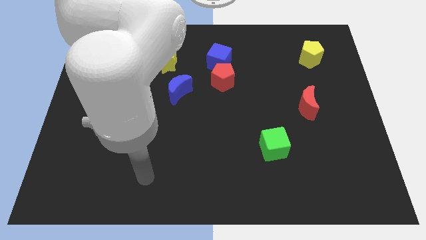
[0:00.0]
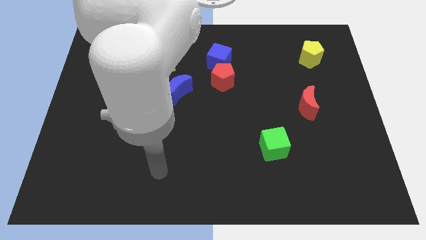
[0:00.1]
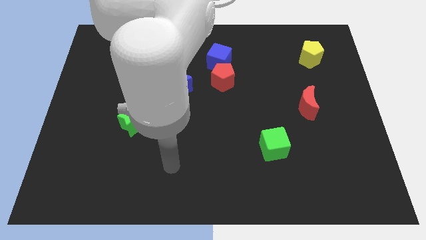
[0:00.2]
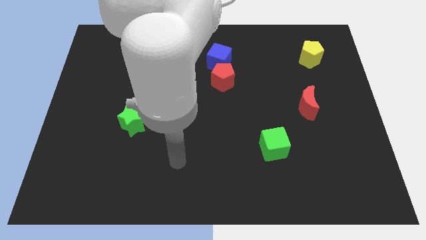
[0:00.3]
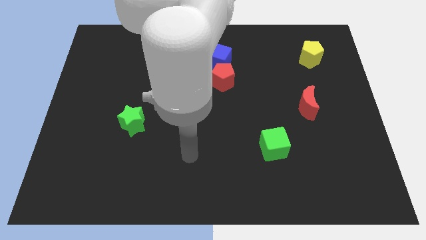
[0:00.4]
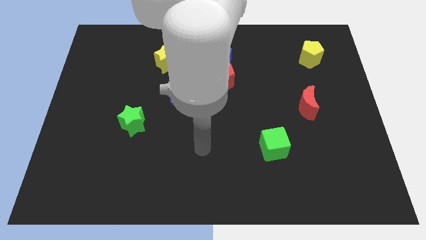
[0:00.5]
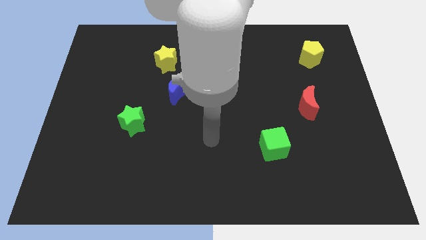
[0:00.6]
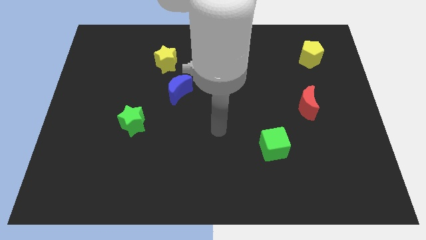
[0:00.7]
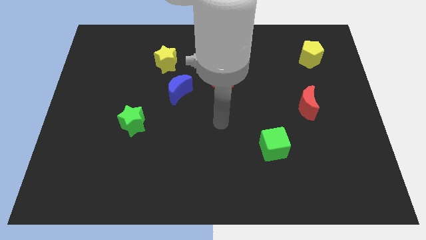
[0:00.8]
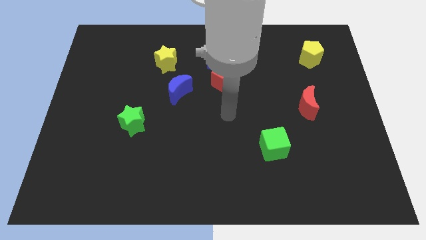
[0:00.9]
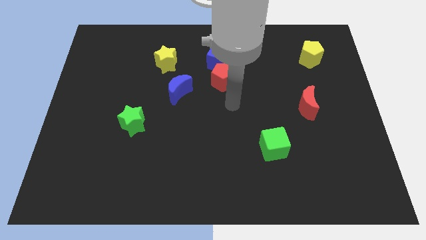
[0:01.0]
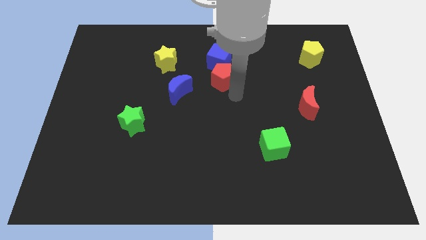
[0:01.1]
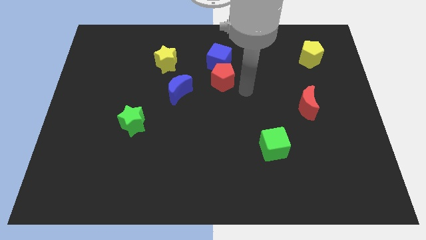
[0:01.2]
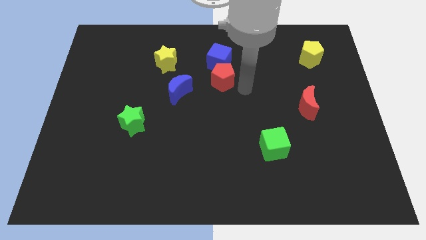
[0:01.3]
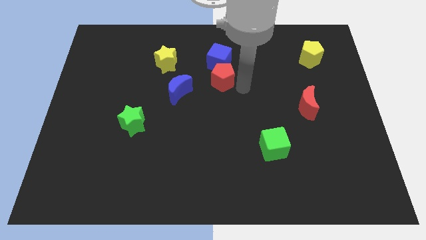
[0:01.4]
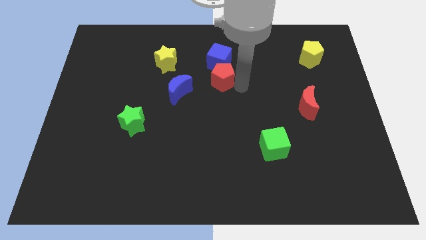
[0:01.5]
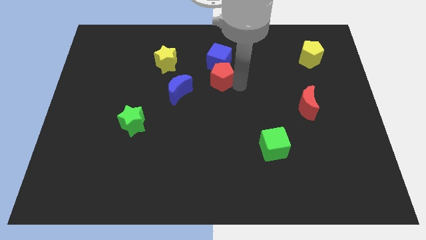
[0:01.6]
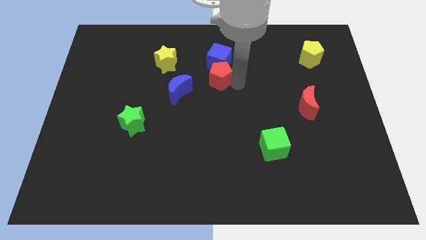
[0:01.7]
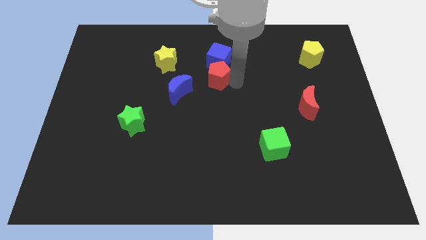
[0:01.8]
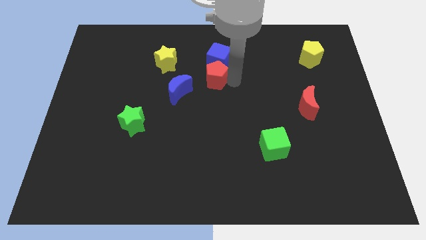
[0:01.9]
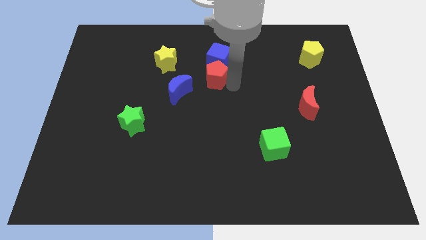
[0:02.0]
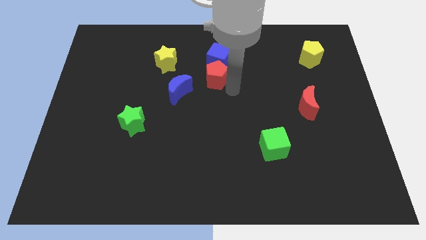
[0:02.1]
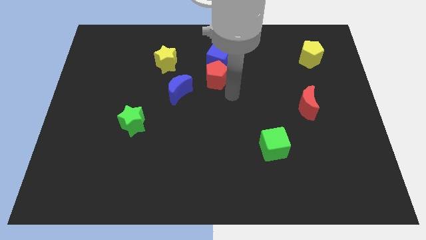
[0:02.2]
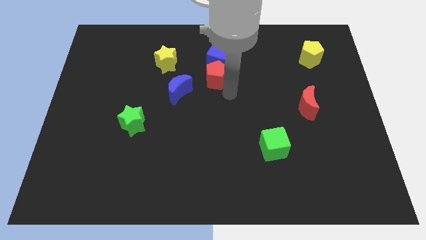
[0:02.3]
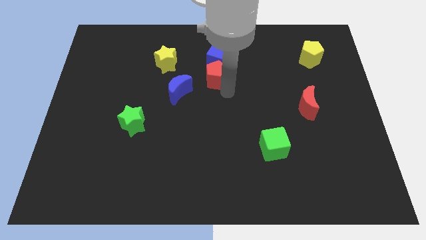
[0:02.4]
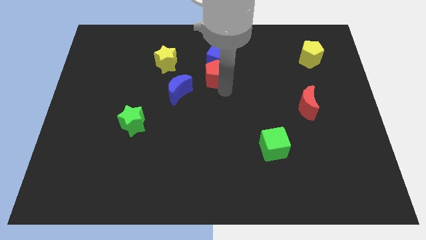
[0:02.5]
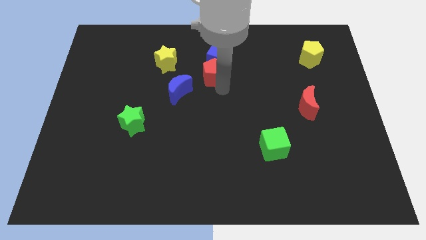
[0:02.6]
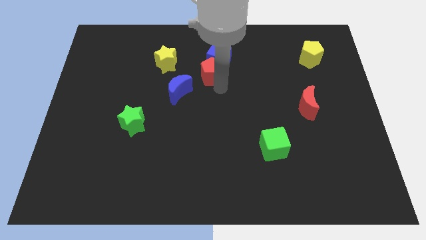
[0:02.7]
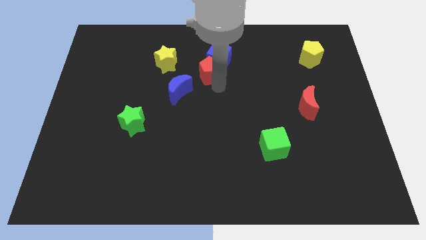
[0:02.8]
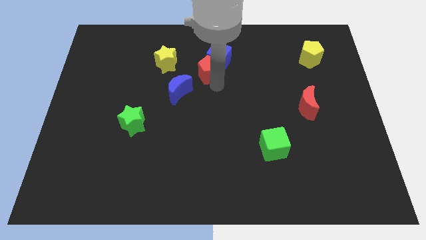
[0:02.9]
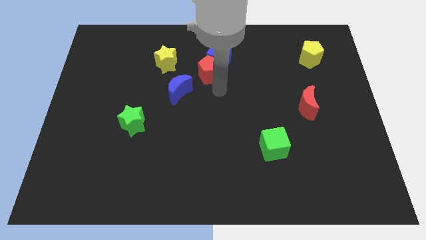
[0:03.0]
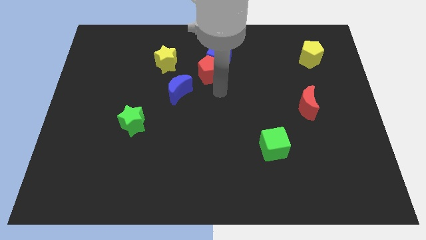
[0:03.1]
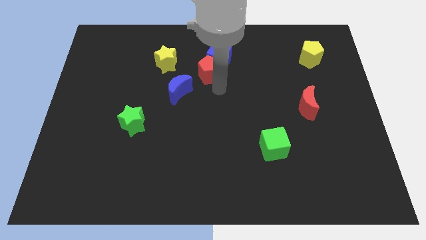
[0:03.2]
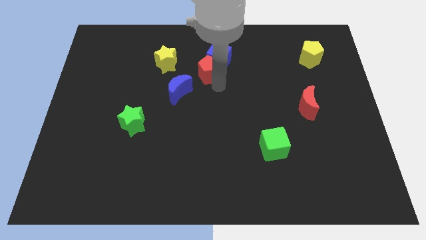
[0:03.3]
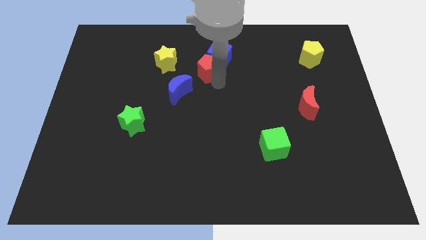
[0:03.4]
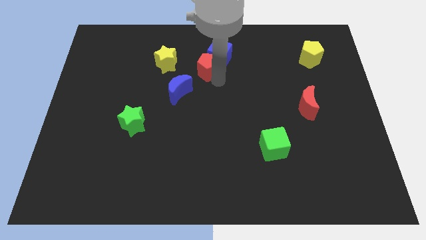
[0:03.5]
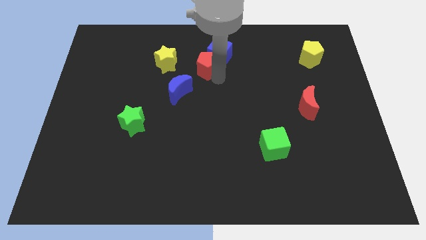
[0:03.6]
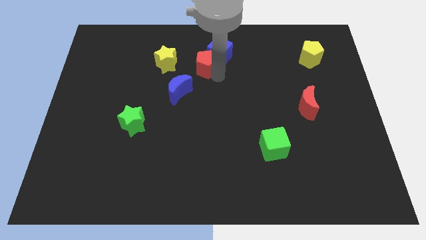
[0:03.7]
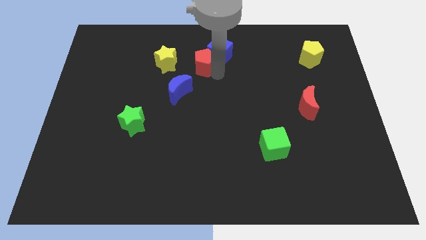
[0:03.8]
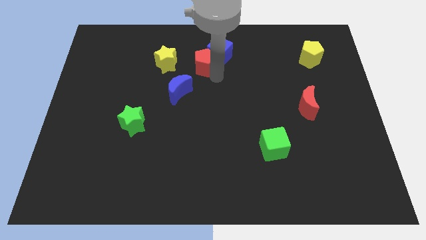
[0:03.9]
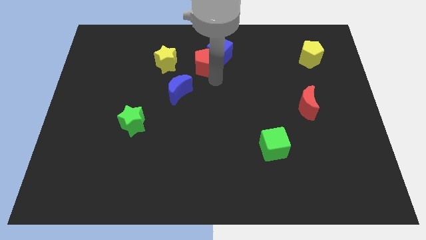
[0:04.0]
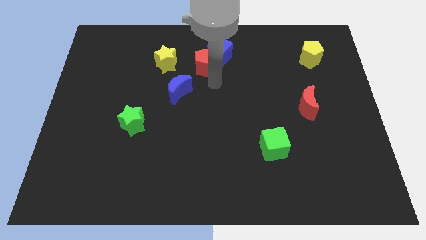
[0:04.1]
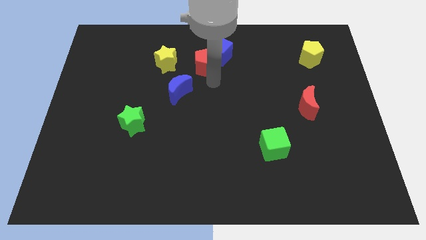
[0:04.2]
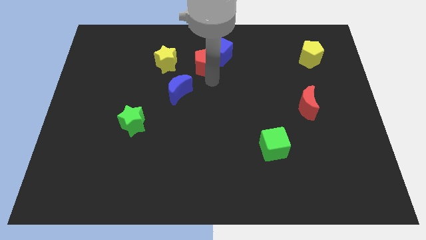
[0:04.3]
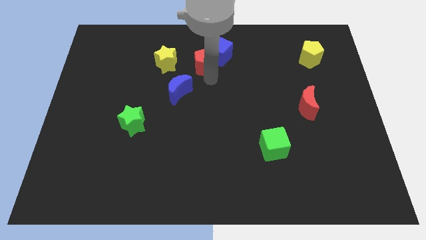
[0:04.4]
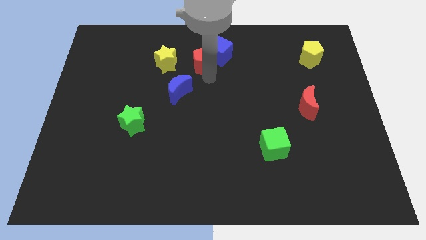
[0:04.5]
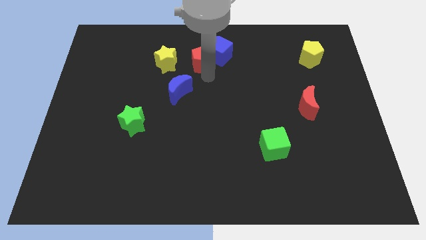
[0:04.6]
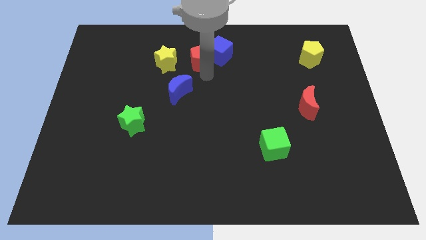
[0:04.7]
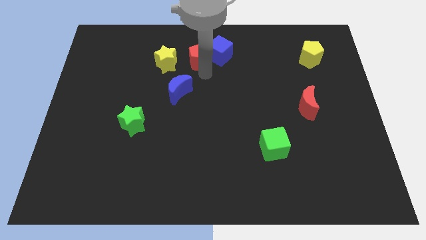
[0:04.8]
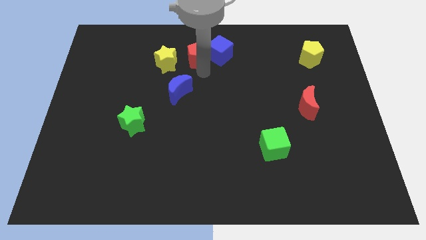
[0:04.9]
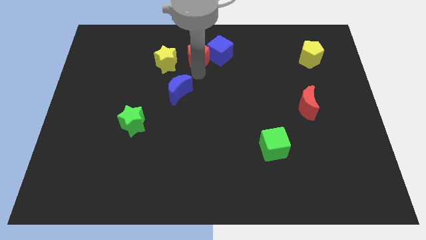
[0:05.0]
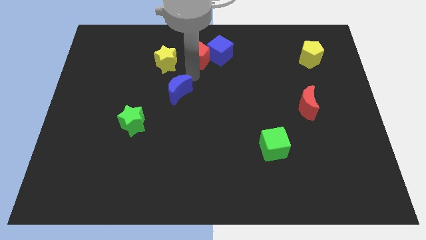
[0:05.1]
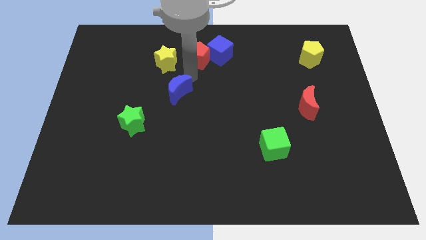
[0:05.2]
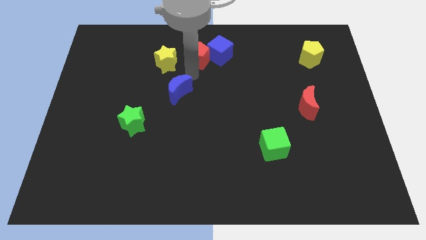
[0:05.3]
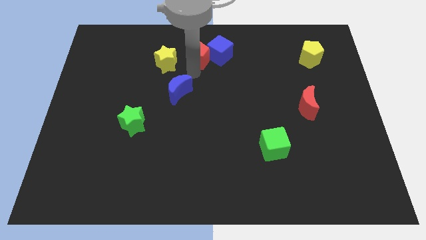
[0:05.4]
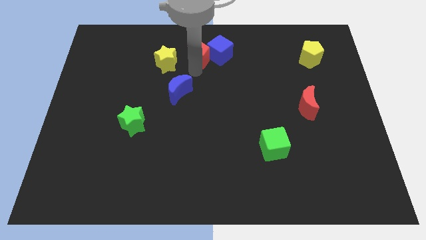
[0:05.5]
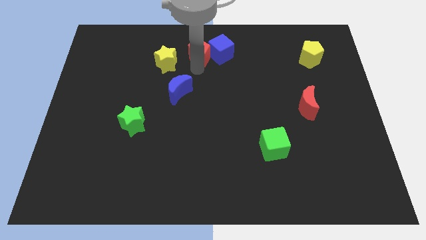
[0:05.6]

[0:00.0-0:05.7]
put the red pentagon to the towards your base

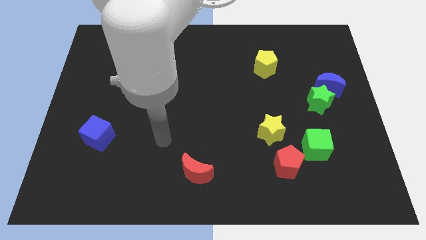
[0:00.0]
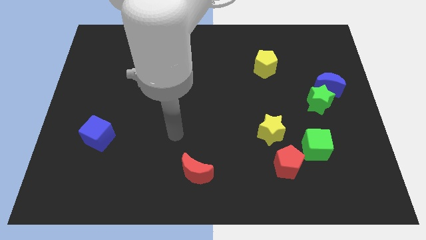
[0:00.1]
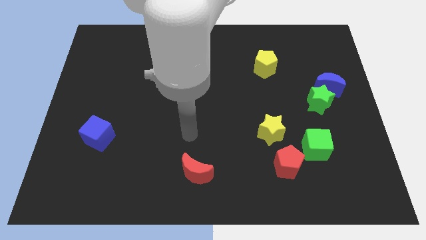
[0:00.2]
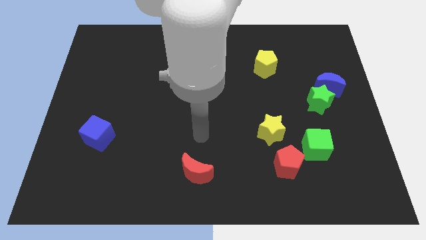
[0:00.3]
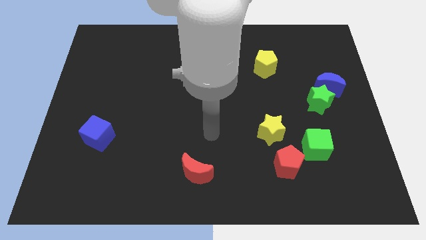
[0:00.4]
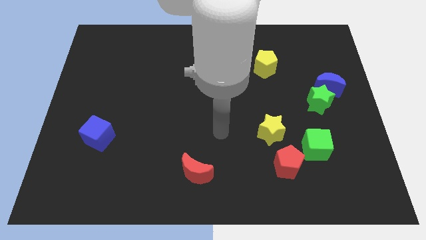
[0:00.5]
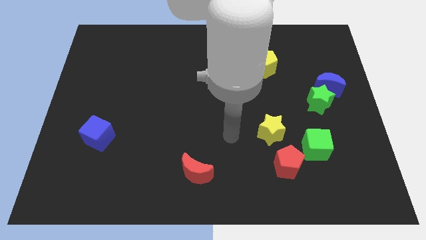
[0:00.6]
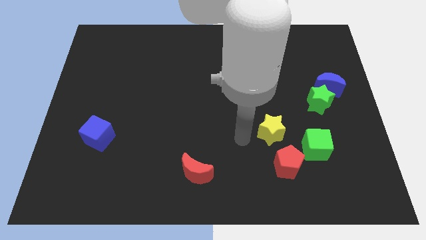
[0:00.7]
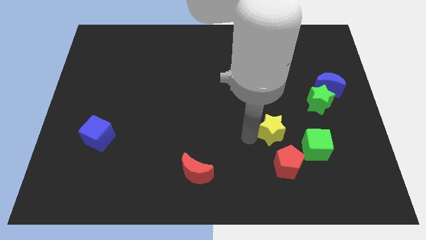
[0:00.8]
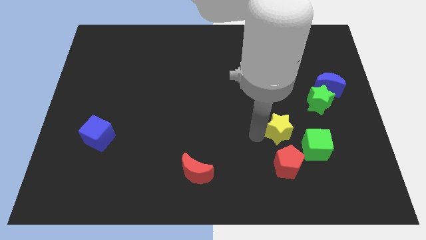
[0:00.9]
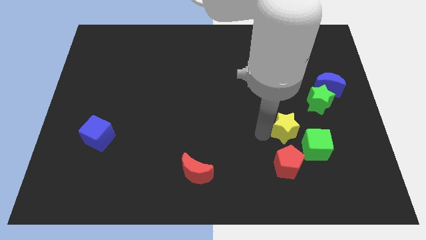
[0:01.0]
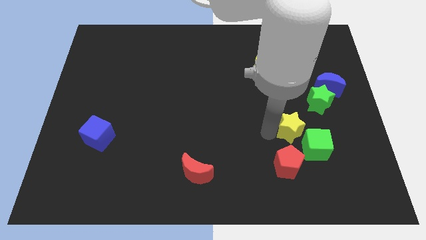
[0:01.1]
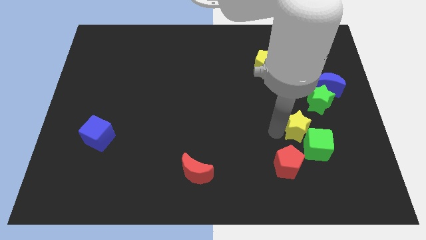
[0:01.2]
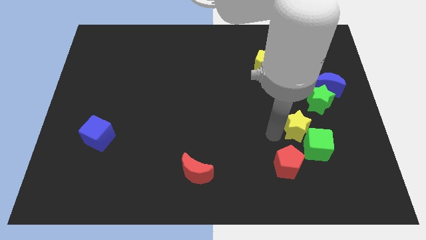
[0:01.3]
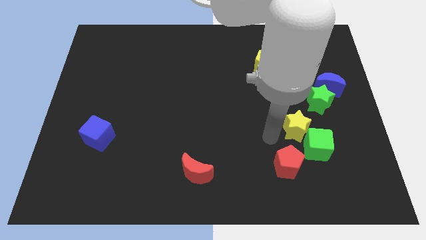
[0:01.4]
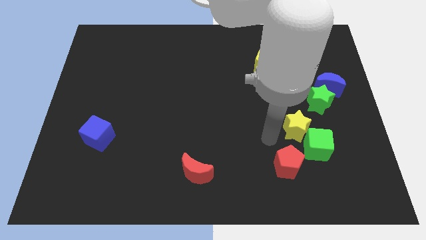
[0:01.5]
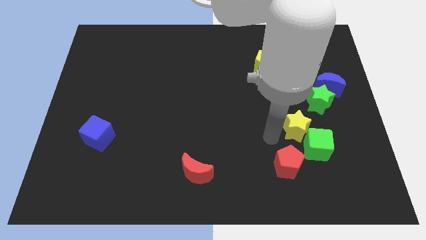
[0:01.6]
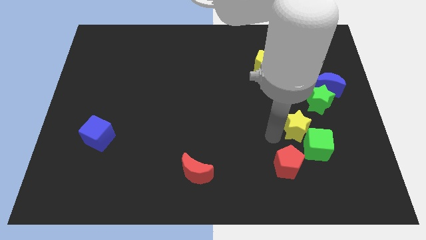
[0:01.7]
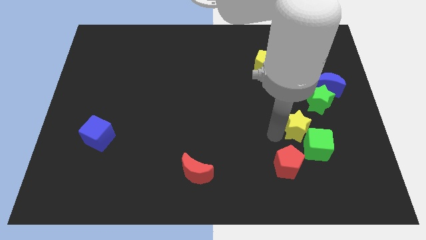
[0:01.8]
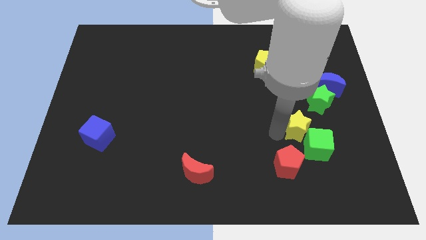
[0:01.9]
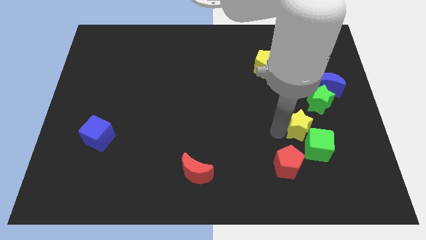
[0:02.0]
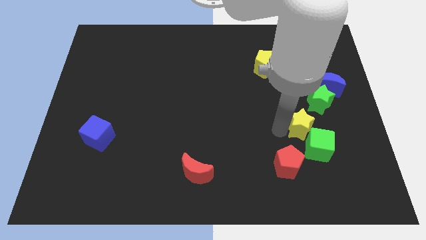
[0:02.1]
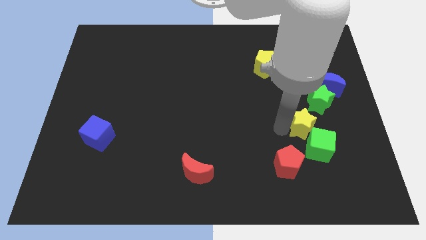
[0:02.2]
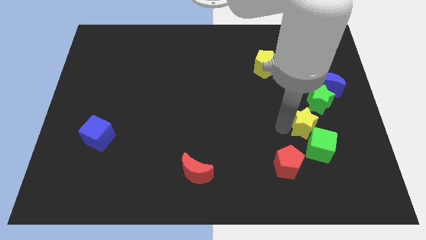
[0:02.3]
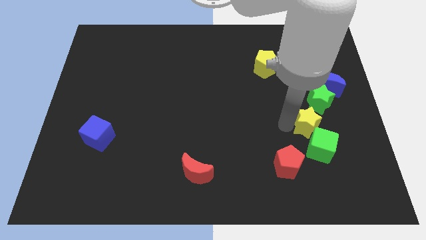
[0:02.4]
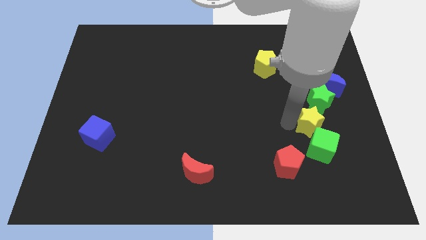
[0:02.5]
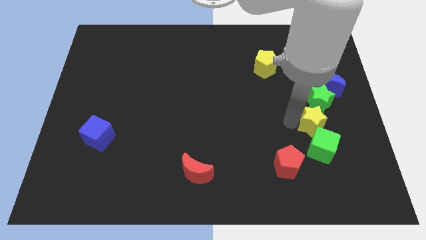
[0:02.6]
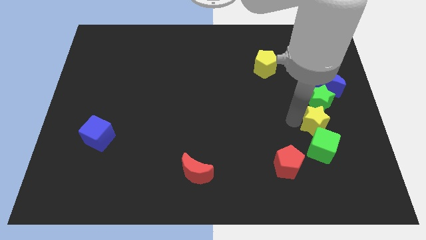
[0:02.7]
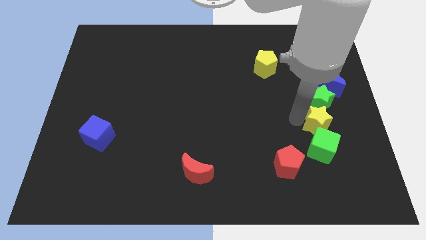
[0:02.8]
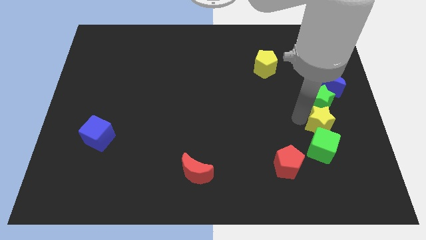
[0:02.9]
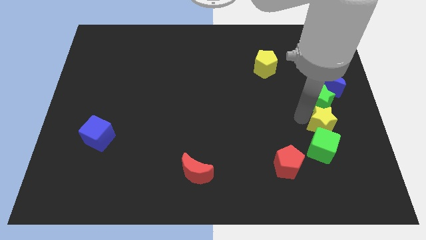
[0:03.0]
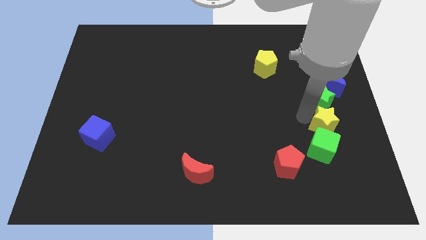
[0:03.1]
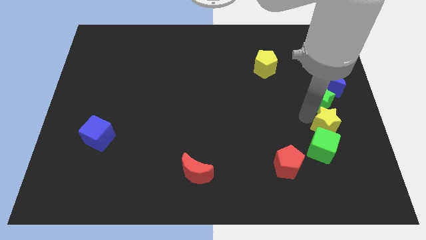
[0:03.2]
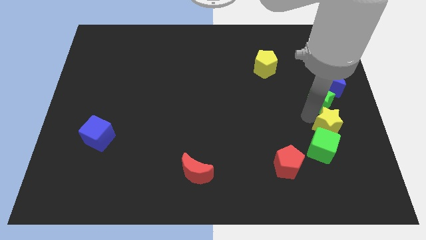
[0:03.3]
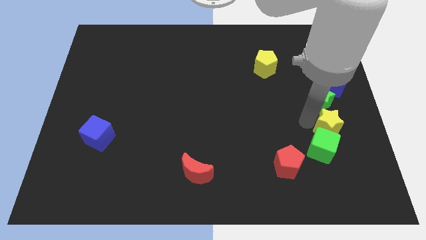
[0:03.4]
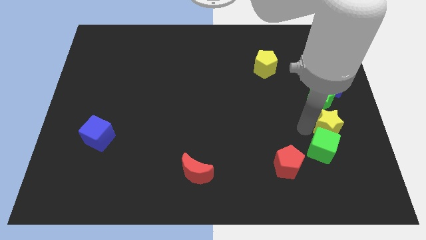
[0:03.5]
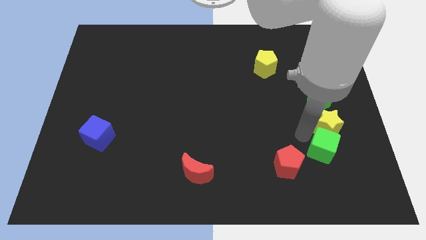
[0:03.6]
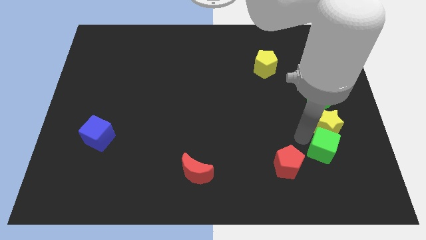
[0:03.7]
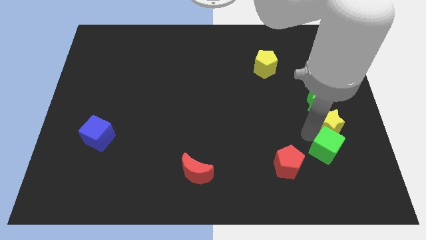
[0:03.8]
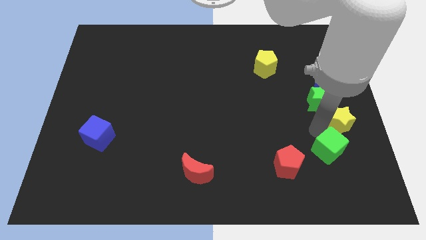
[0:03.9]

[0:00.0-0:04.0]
slide the yellow star to the right side
